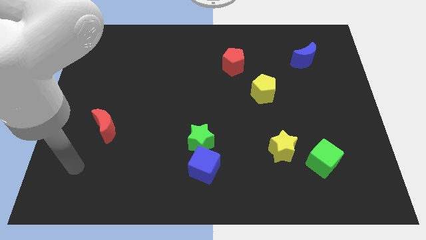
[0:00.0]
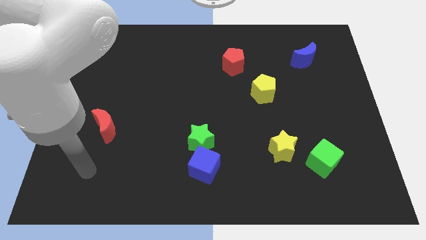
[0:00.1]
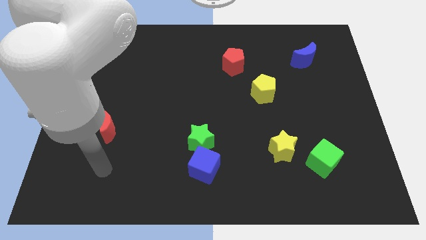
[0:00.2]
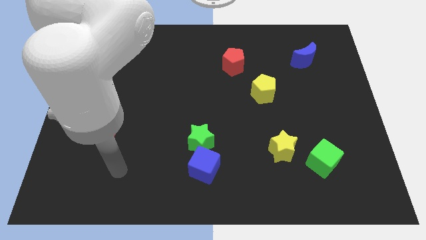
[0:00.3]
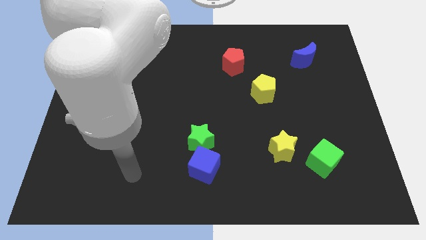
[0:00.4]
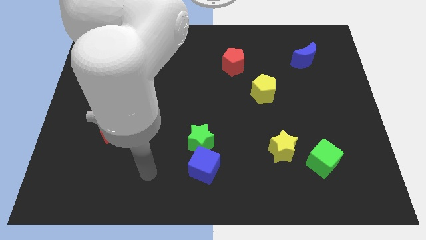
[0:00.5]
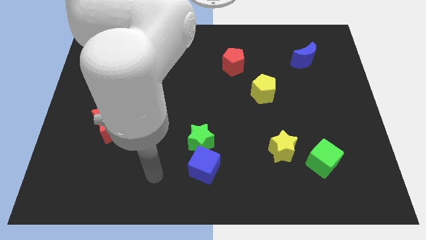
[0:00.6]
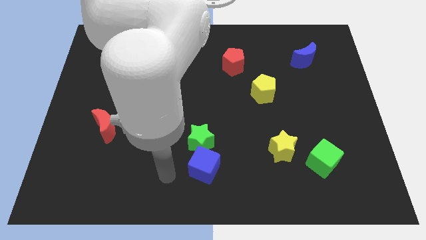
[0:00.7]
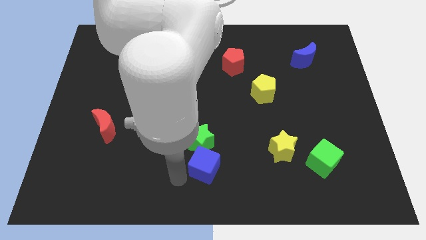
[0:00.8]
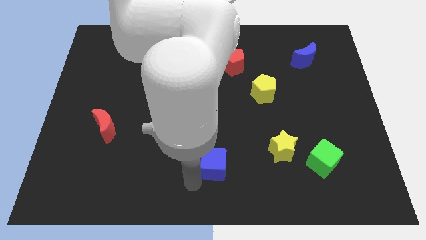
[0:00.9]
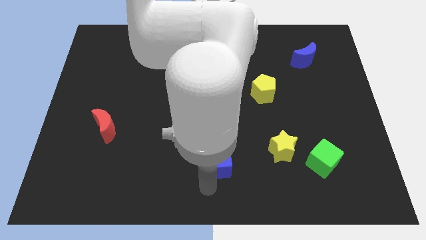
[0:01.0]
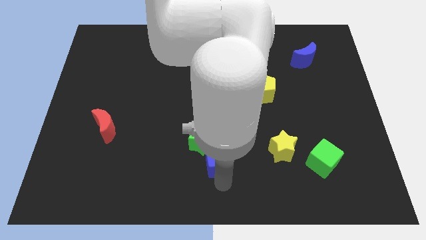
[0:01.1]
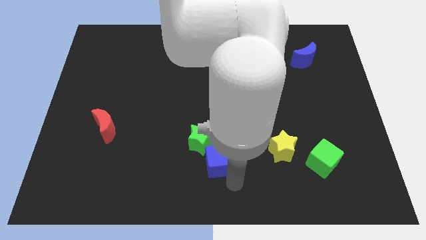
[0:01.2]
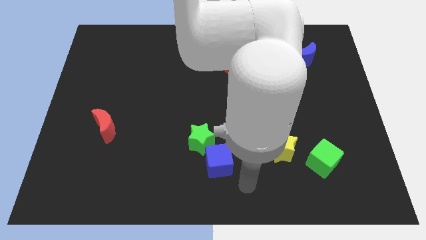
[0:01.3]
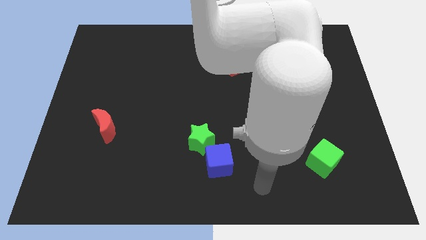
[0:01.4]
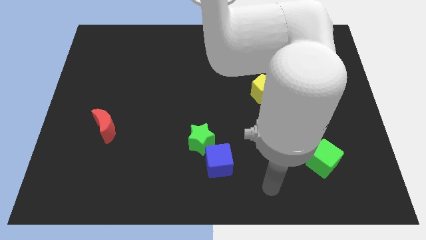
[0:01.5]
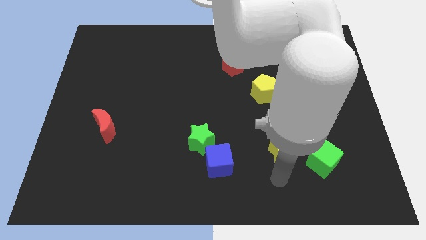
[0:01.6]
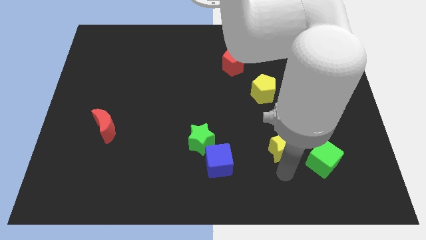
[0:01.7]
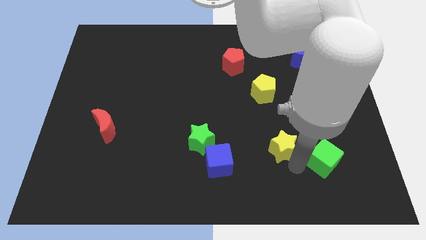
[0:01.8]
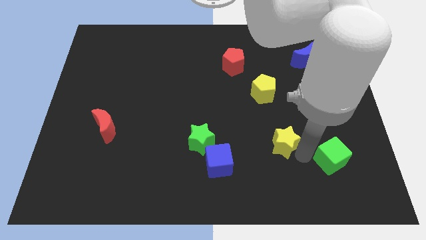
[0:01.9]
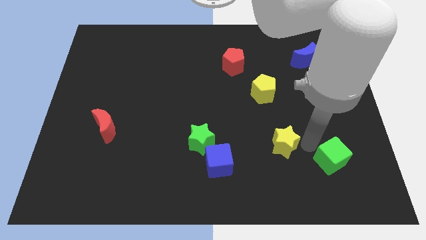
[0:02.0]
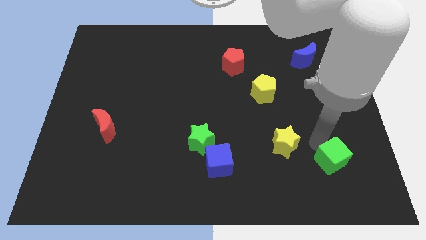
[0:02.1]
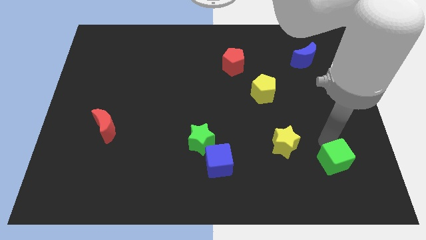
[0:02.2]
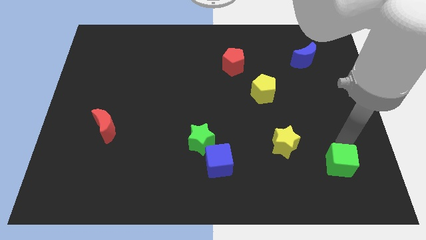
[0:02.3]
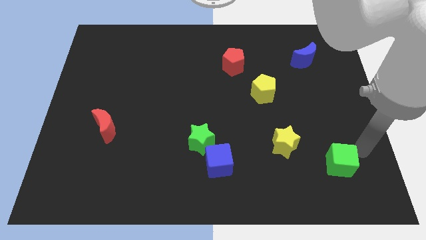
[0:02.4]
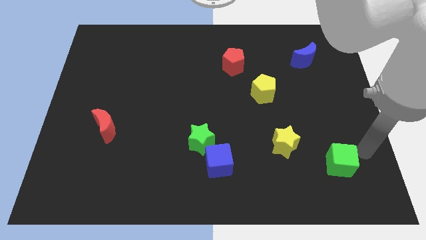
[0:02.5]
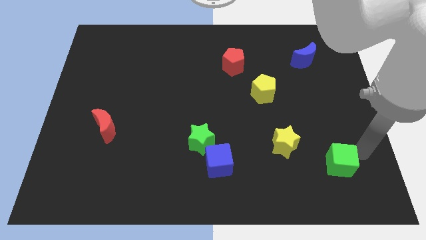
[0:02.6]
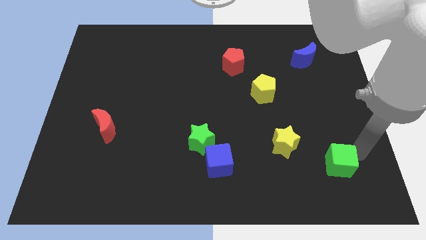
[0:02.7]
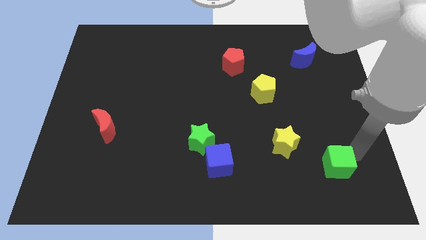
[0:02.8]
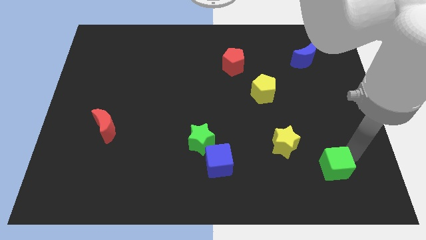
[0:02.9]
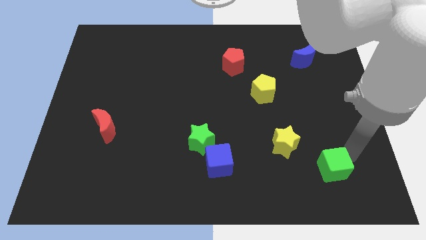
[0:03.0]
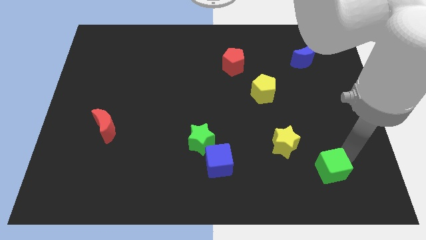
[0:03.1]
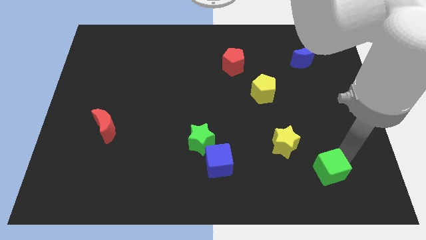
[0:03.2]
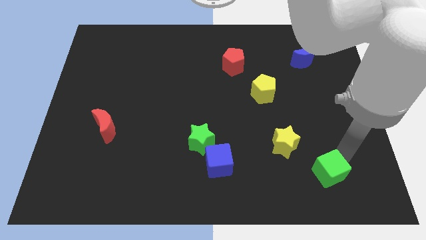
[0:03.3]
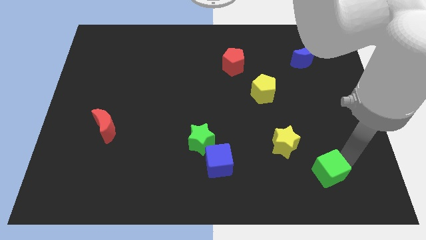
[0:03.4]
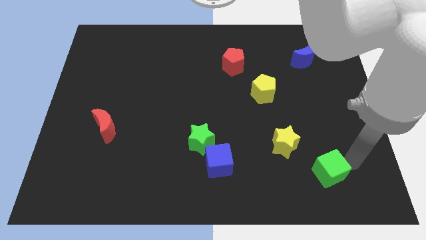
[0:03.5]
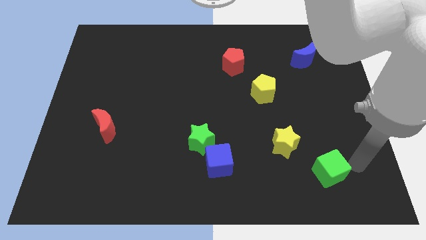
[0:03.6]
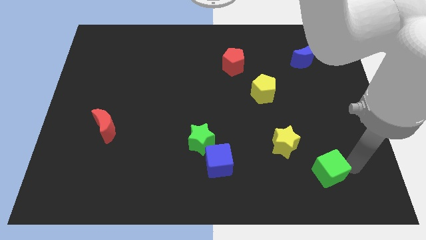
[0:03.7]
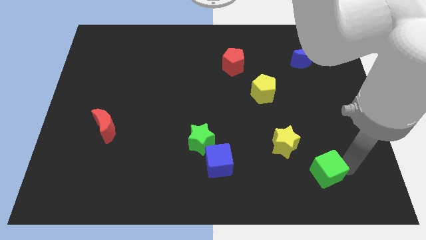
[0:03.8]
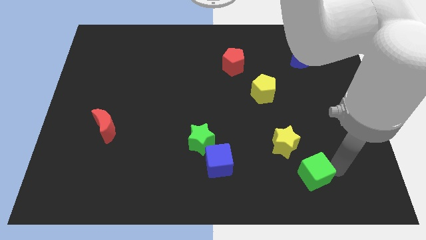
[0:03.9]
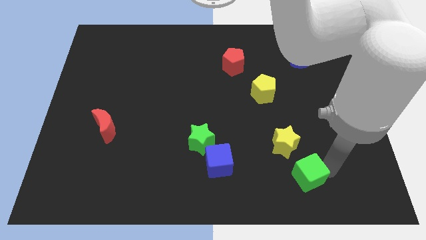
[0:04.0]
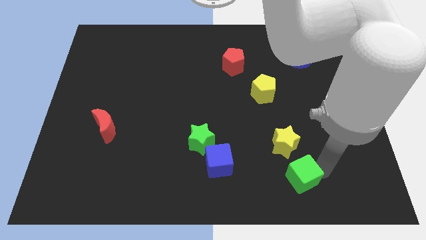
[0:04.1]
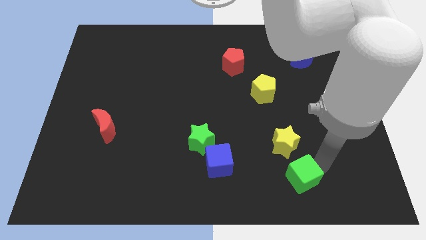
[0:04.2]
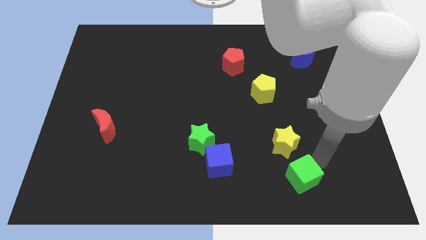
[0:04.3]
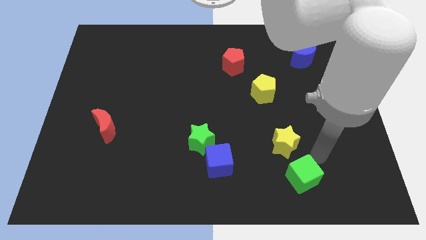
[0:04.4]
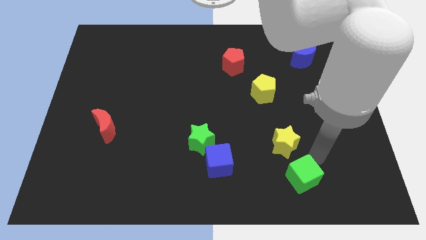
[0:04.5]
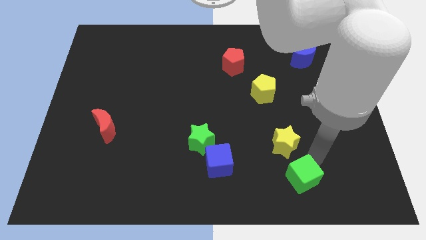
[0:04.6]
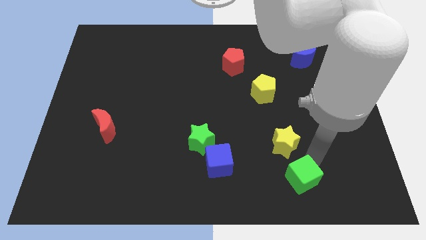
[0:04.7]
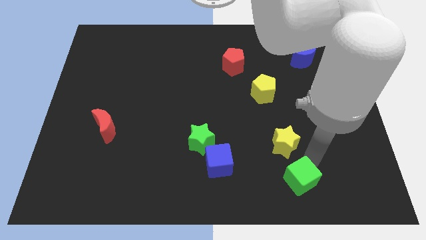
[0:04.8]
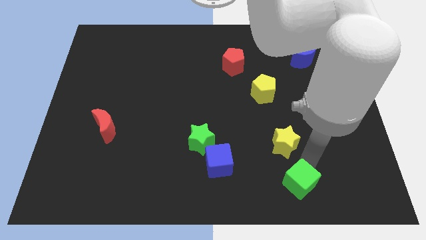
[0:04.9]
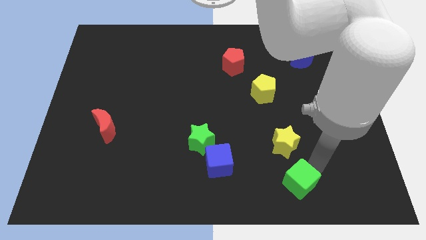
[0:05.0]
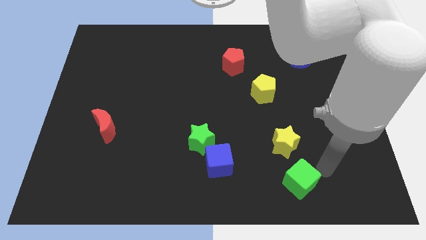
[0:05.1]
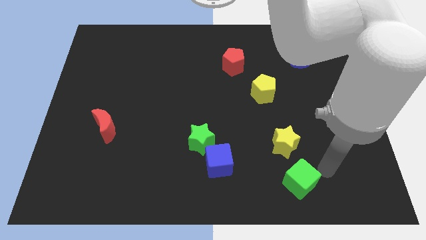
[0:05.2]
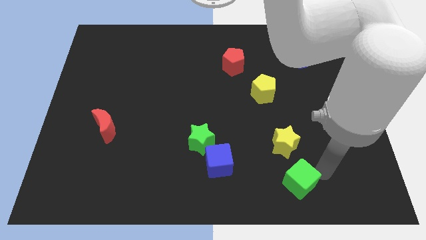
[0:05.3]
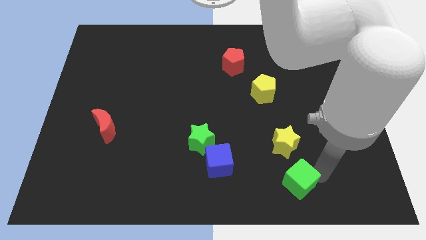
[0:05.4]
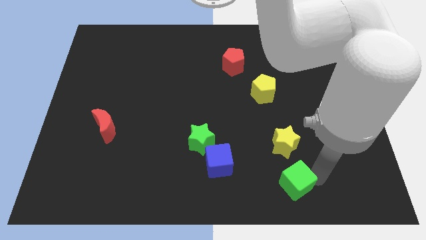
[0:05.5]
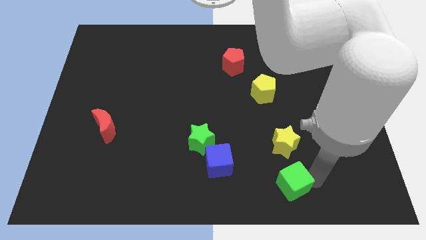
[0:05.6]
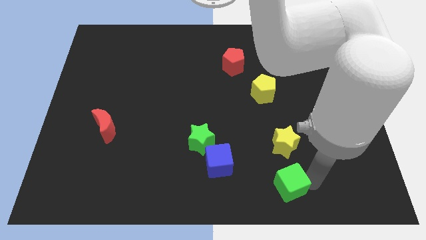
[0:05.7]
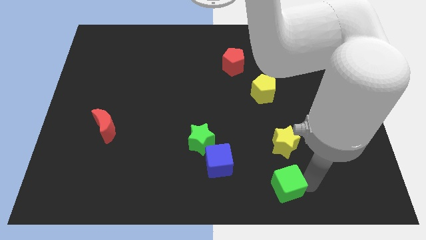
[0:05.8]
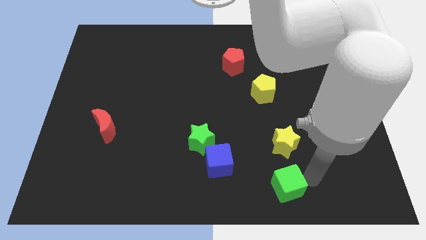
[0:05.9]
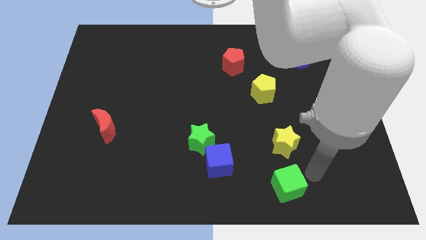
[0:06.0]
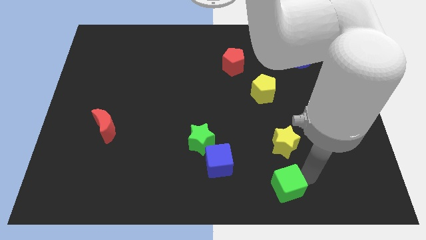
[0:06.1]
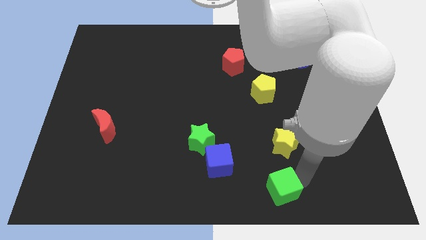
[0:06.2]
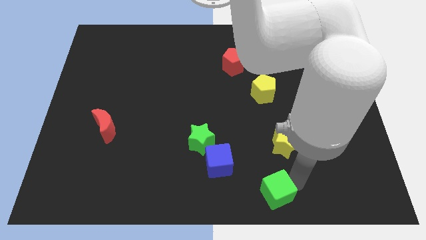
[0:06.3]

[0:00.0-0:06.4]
push the green cube to the bottom
